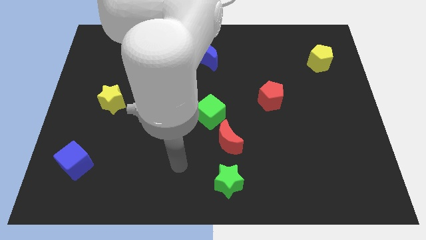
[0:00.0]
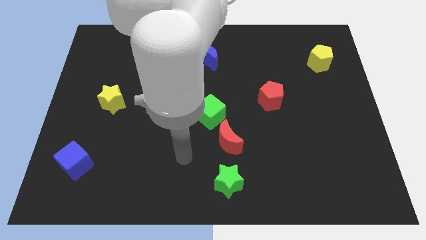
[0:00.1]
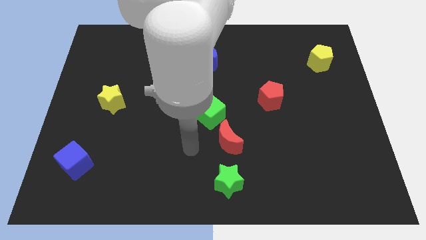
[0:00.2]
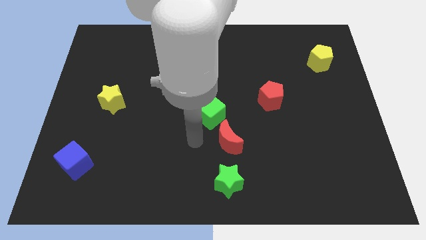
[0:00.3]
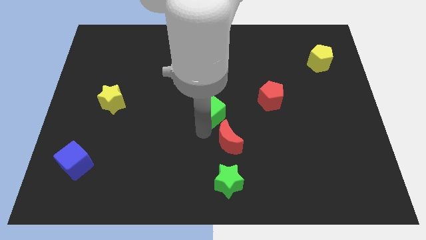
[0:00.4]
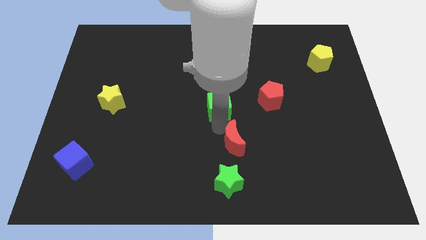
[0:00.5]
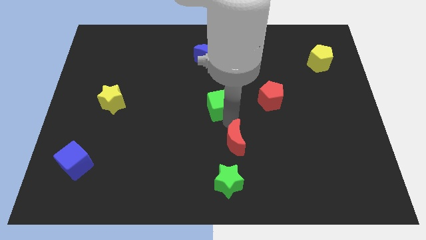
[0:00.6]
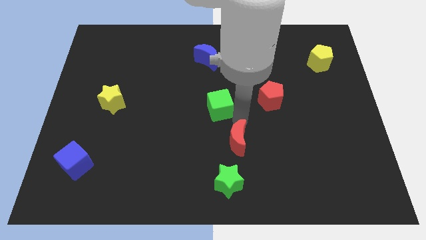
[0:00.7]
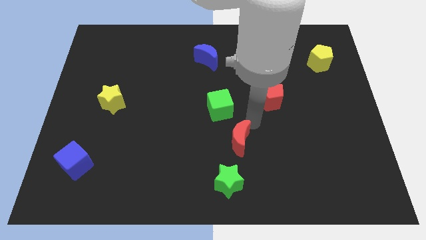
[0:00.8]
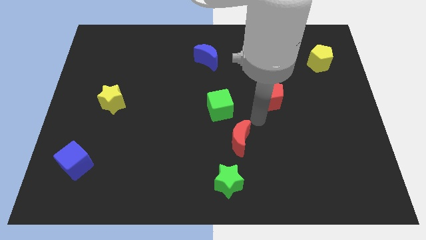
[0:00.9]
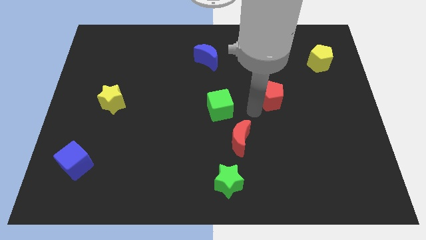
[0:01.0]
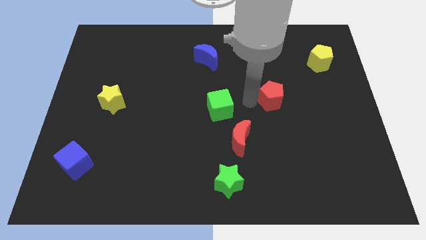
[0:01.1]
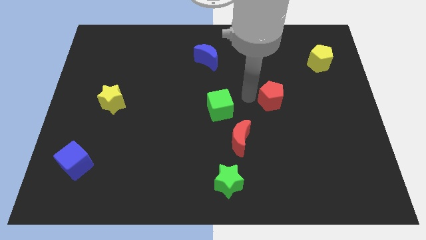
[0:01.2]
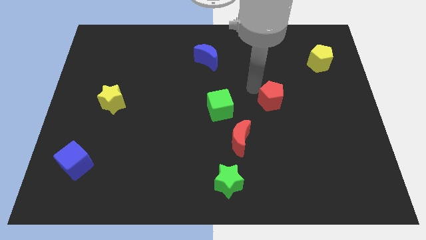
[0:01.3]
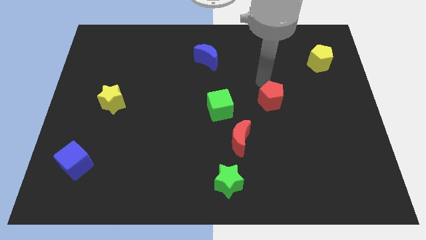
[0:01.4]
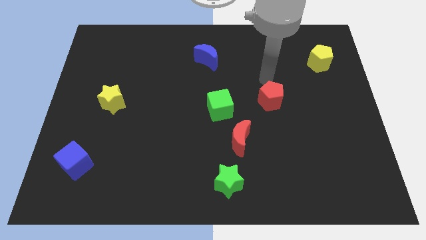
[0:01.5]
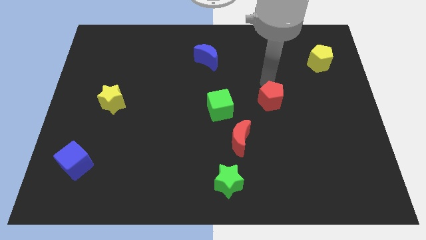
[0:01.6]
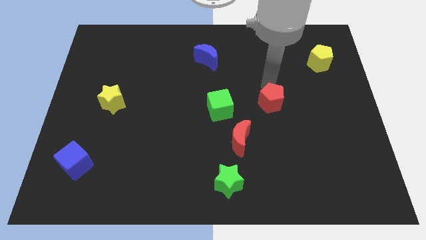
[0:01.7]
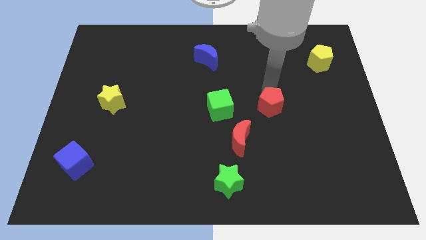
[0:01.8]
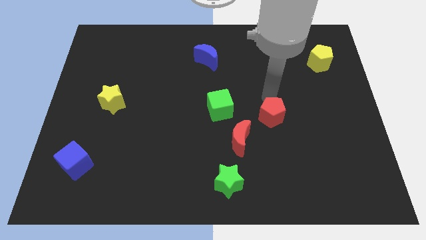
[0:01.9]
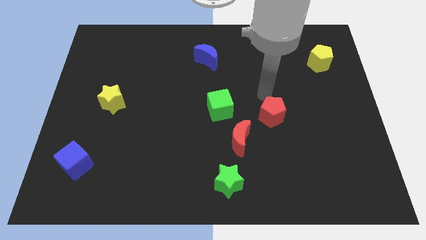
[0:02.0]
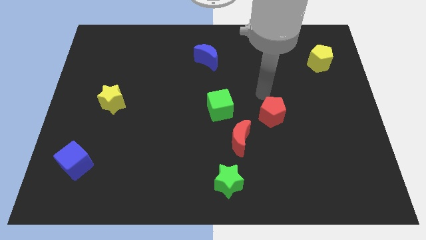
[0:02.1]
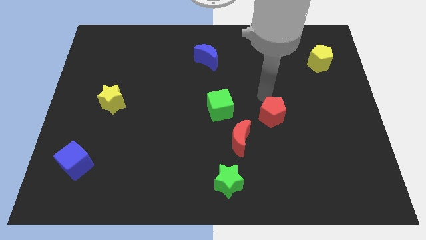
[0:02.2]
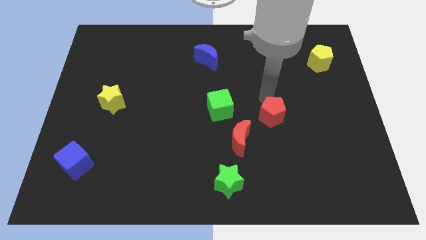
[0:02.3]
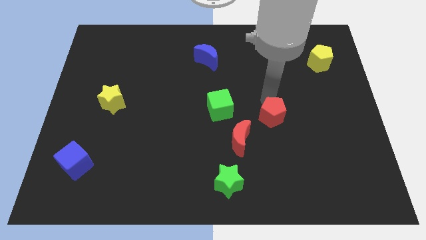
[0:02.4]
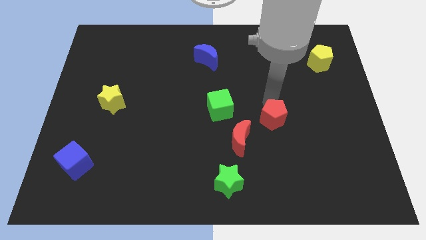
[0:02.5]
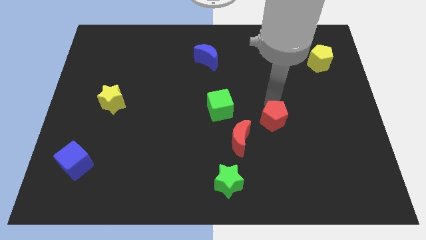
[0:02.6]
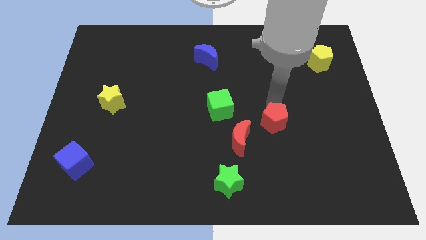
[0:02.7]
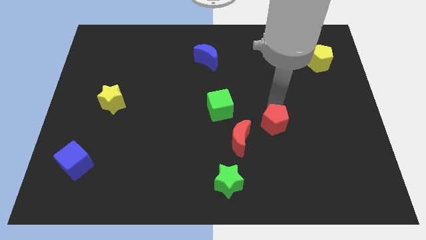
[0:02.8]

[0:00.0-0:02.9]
move the red pentagon downwards a little bit

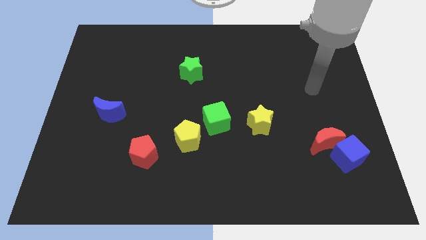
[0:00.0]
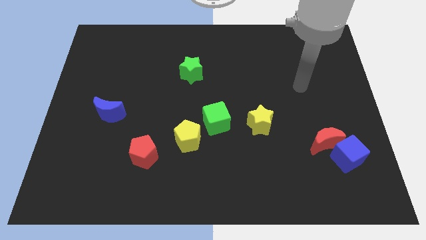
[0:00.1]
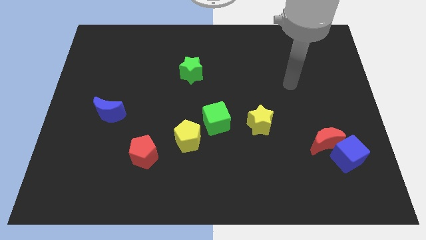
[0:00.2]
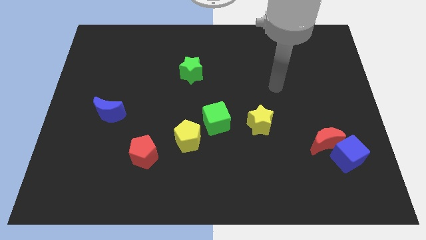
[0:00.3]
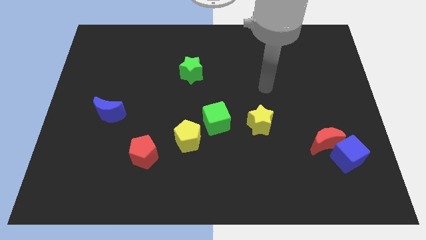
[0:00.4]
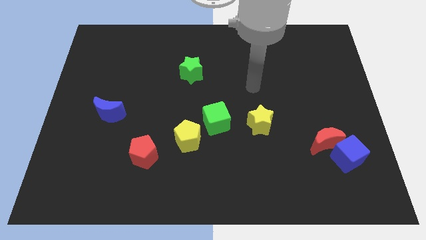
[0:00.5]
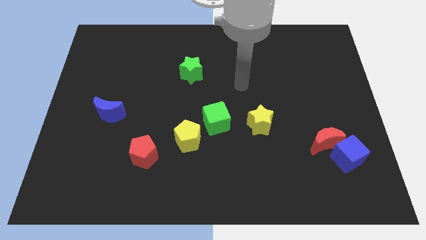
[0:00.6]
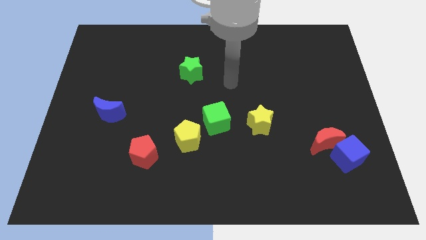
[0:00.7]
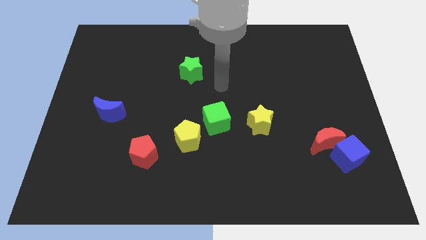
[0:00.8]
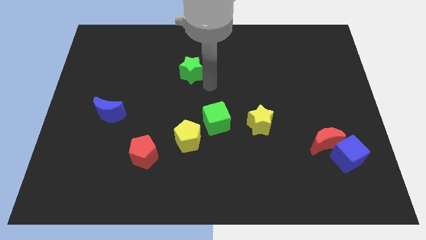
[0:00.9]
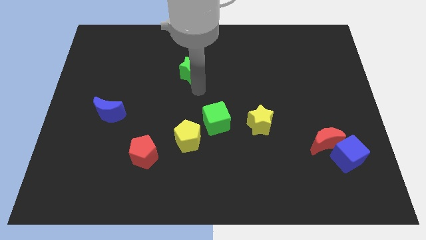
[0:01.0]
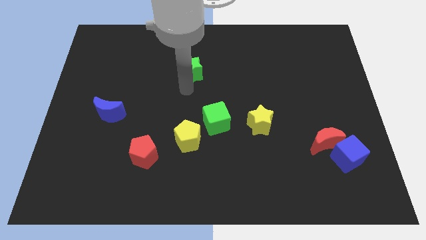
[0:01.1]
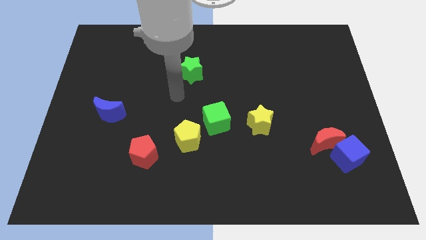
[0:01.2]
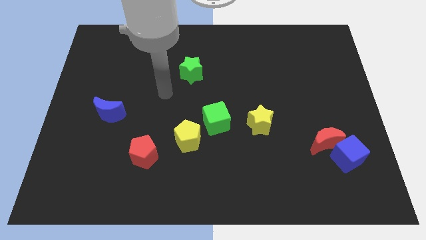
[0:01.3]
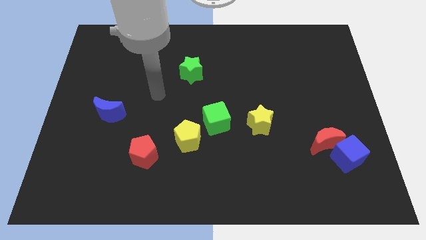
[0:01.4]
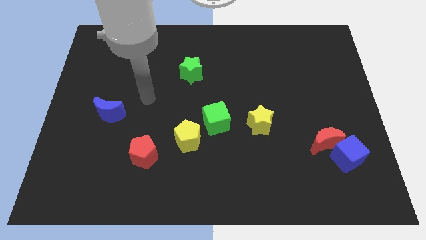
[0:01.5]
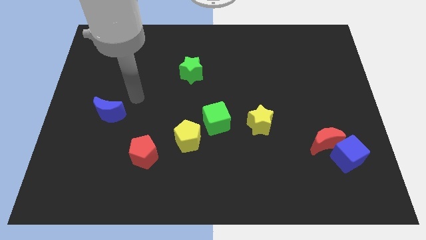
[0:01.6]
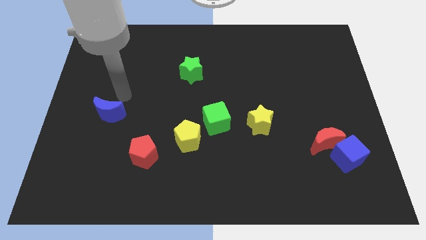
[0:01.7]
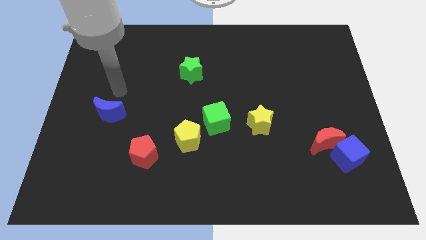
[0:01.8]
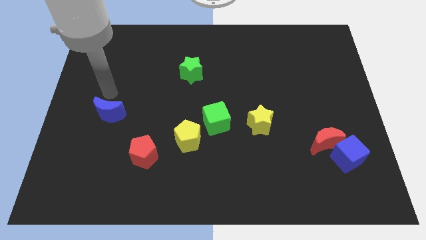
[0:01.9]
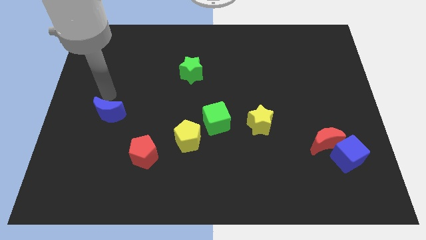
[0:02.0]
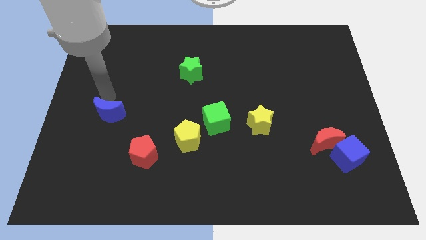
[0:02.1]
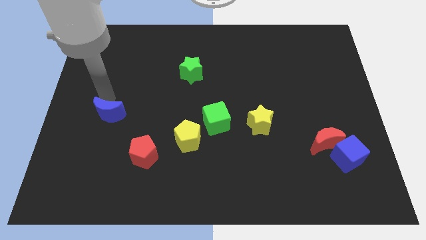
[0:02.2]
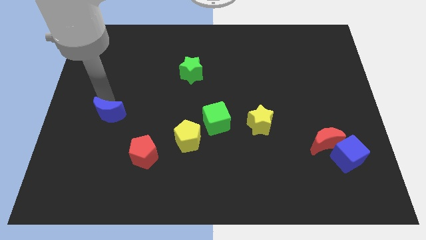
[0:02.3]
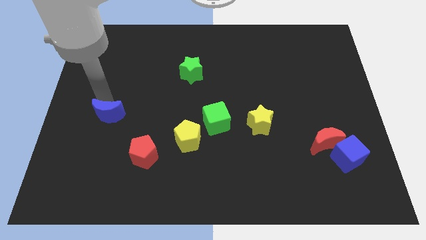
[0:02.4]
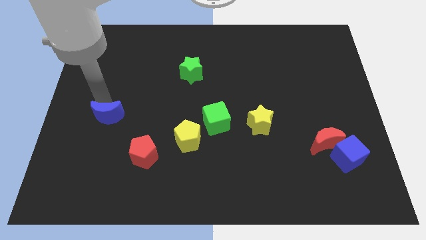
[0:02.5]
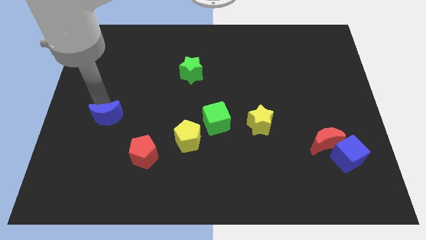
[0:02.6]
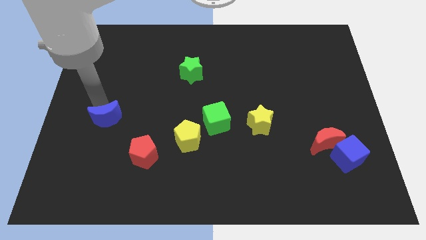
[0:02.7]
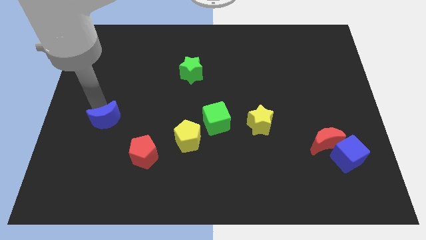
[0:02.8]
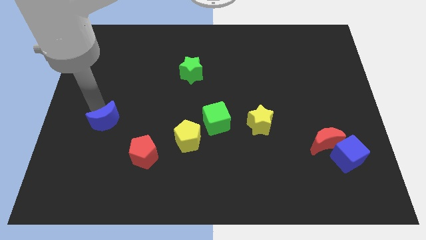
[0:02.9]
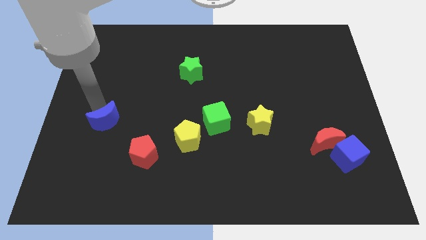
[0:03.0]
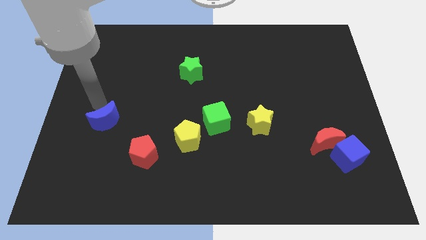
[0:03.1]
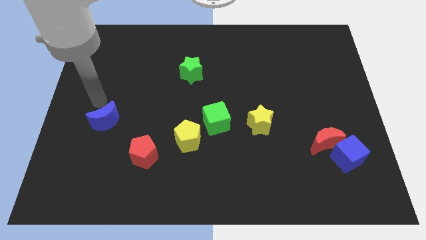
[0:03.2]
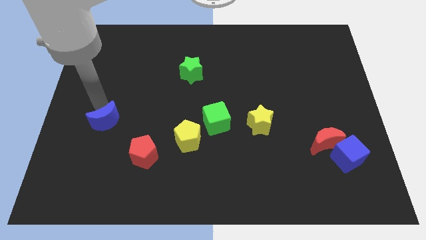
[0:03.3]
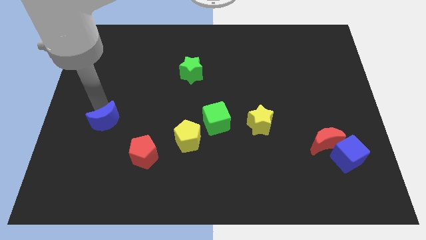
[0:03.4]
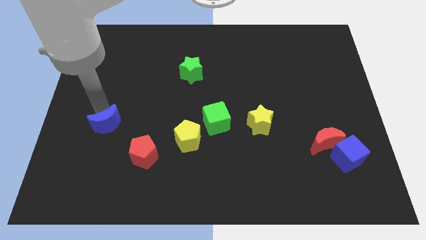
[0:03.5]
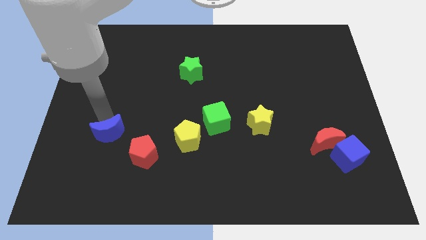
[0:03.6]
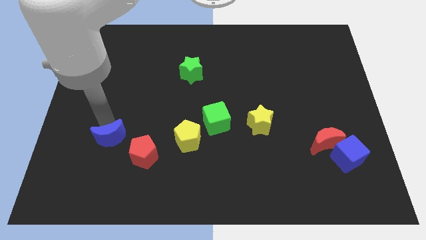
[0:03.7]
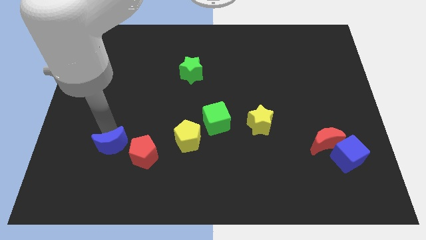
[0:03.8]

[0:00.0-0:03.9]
slightly move the blue moon downwards and right

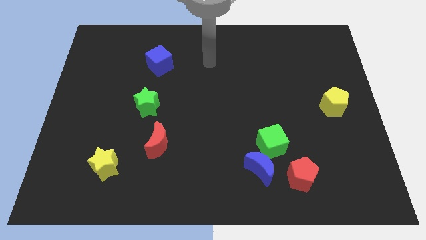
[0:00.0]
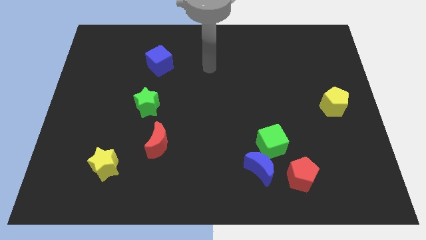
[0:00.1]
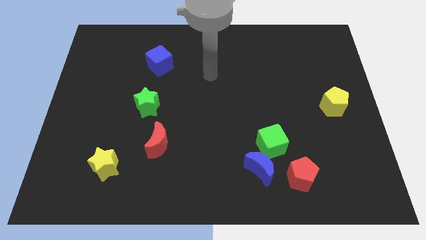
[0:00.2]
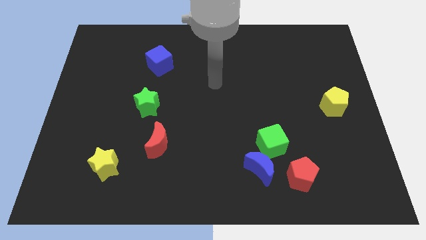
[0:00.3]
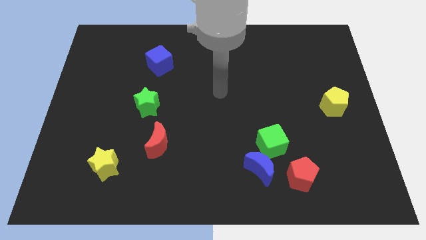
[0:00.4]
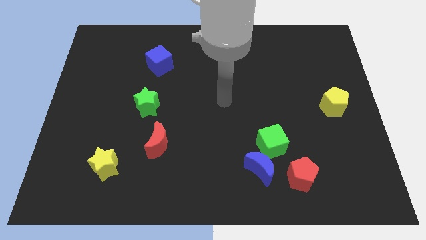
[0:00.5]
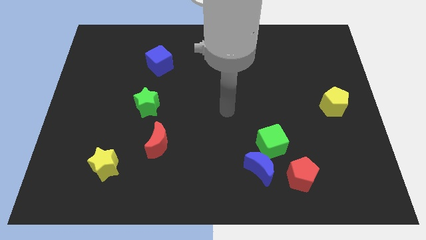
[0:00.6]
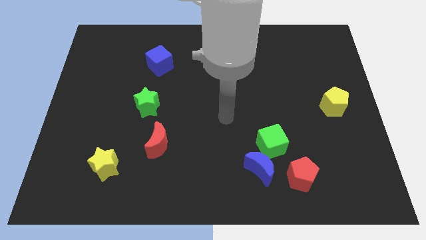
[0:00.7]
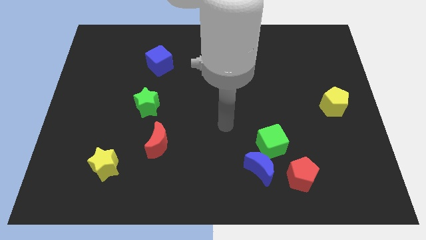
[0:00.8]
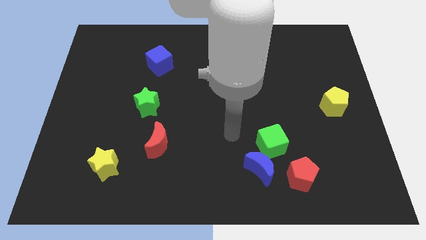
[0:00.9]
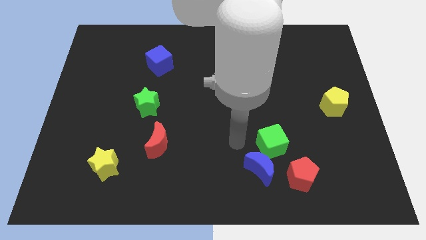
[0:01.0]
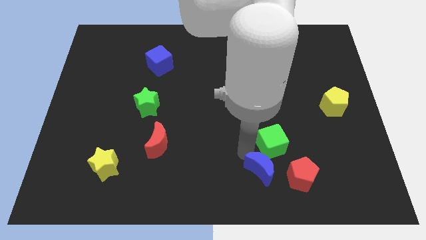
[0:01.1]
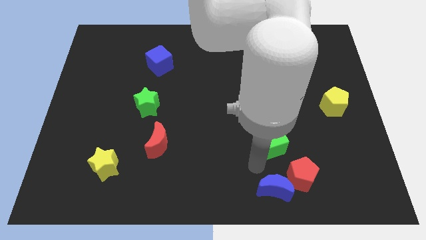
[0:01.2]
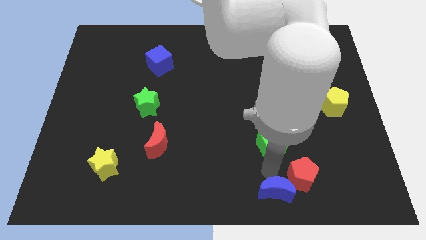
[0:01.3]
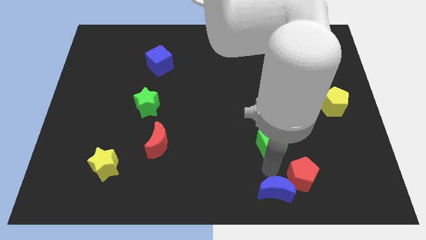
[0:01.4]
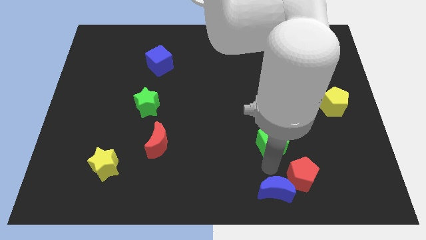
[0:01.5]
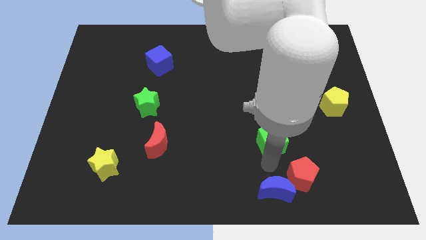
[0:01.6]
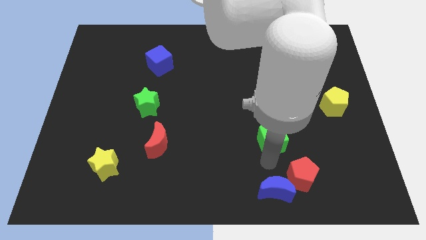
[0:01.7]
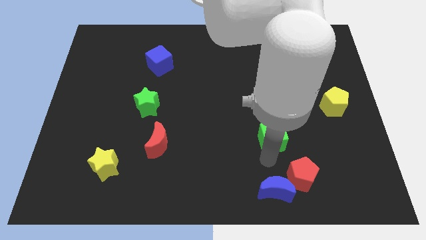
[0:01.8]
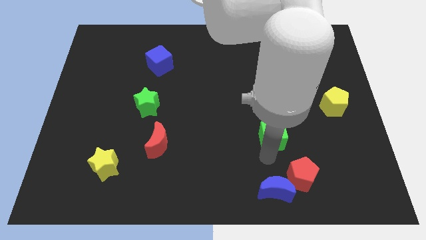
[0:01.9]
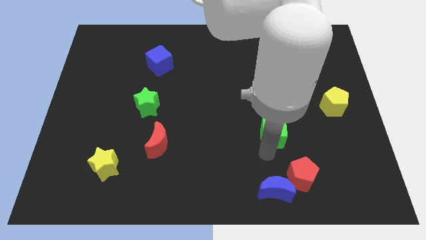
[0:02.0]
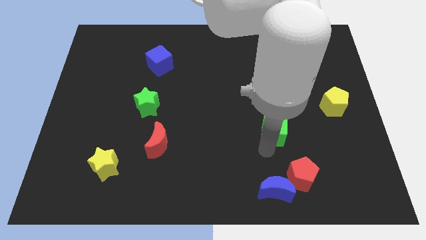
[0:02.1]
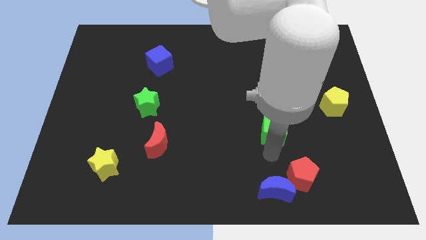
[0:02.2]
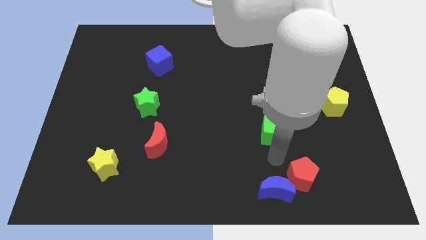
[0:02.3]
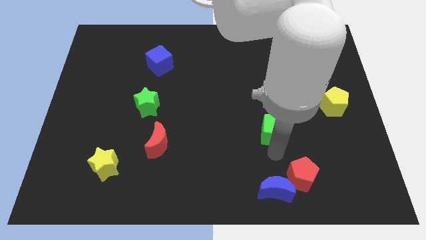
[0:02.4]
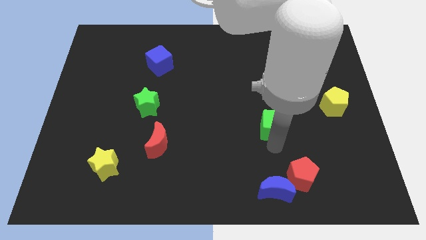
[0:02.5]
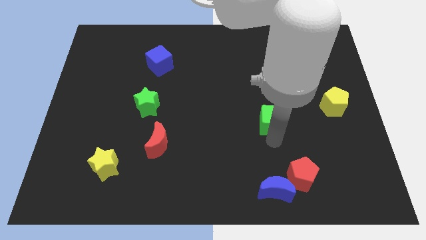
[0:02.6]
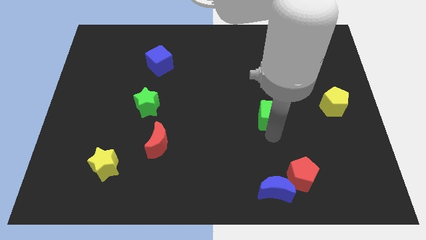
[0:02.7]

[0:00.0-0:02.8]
push the green cube a little bit upwards
